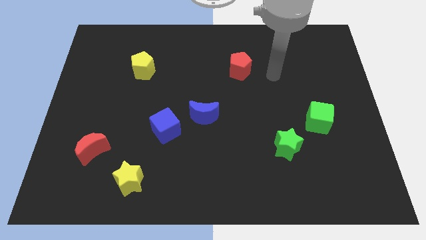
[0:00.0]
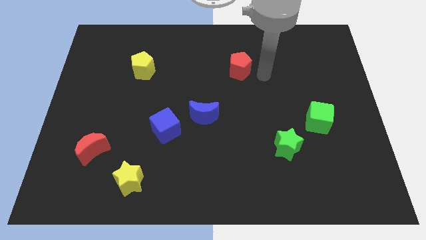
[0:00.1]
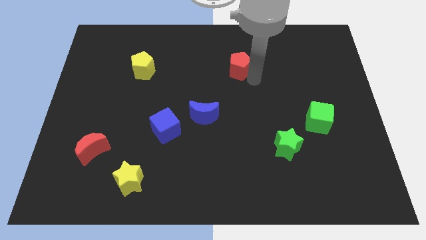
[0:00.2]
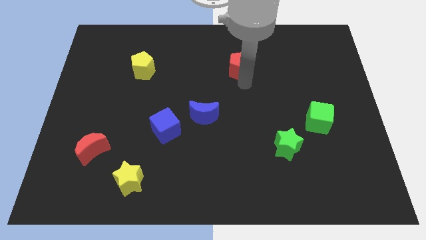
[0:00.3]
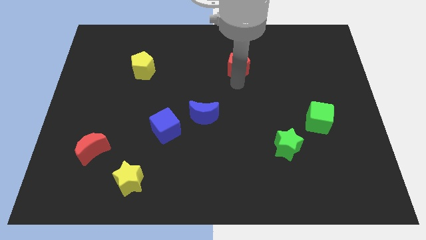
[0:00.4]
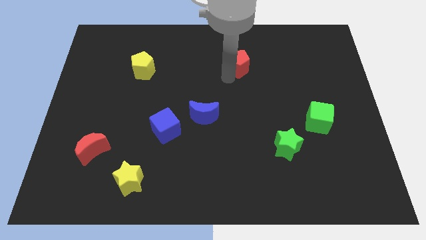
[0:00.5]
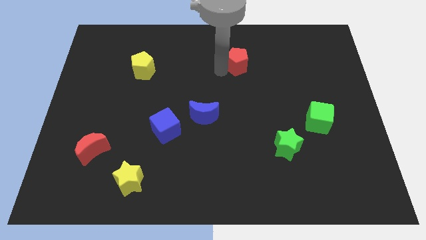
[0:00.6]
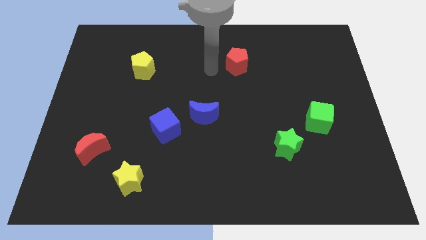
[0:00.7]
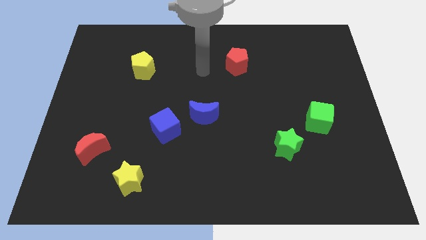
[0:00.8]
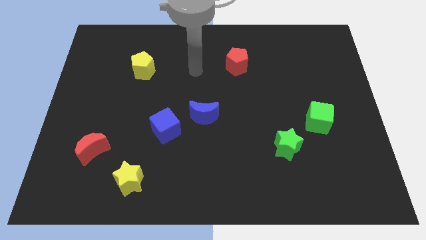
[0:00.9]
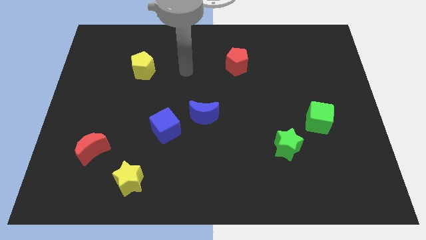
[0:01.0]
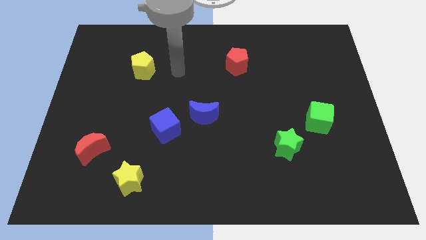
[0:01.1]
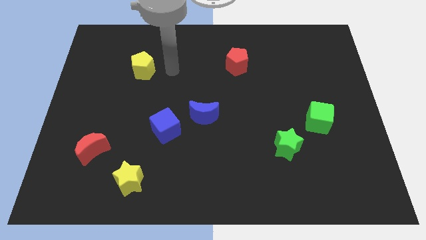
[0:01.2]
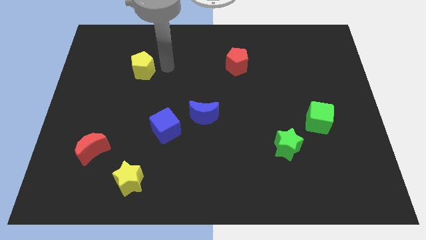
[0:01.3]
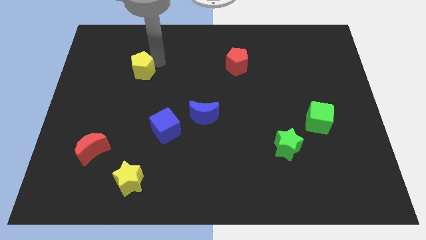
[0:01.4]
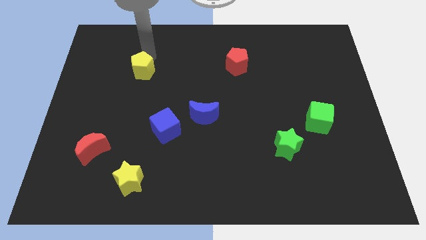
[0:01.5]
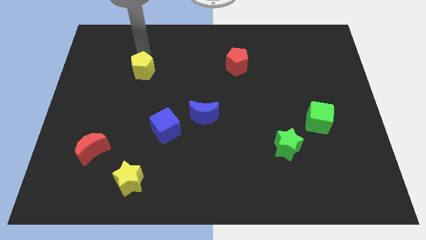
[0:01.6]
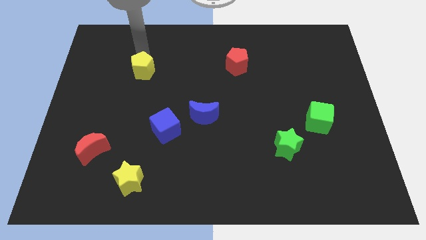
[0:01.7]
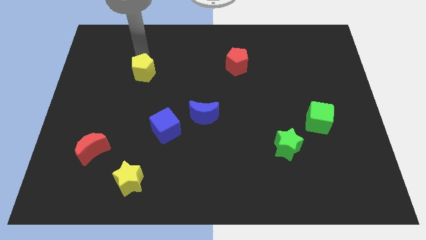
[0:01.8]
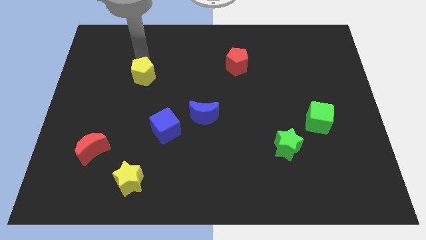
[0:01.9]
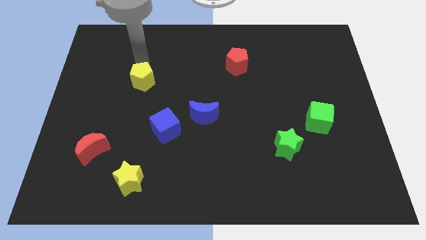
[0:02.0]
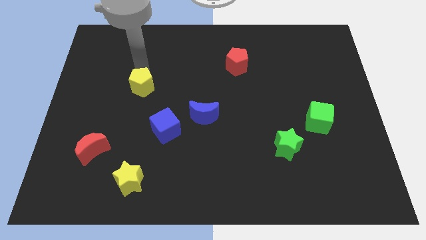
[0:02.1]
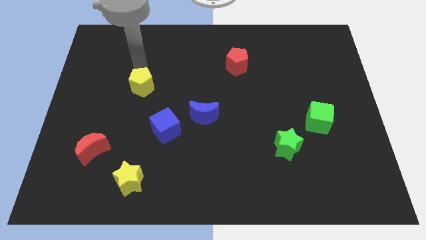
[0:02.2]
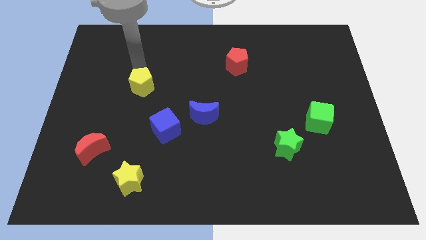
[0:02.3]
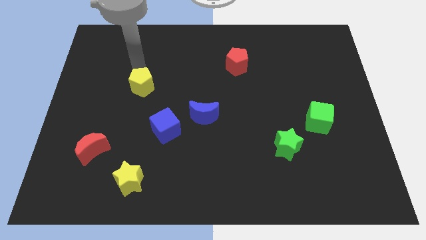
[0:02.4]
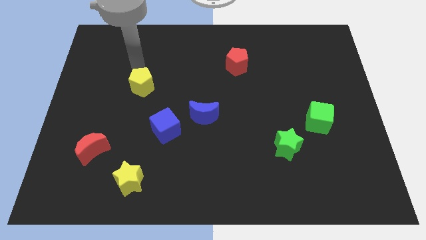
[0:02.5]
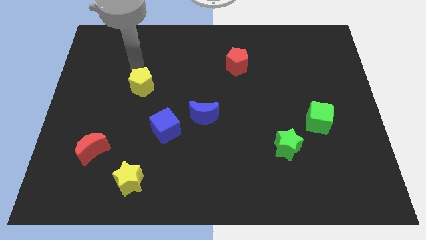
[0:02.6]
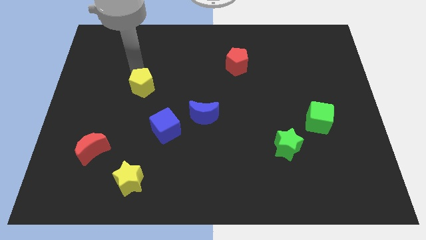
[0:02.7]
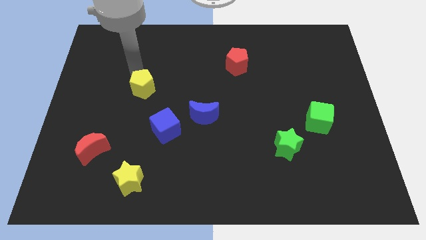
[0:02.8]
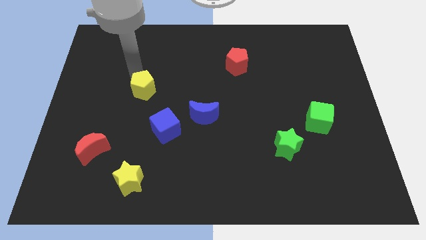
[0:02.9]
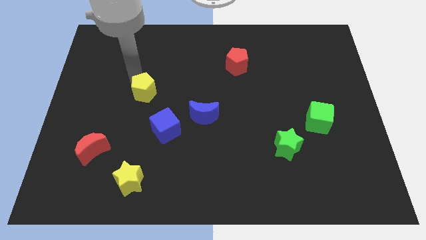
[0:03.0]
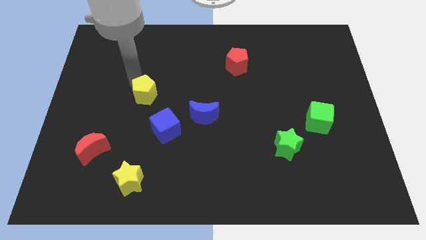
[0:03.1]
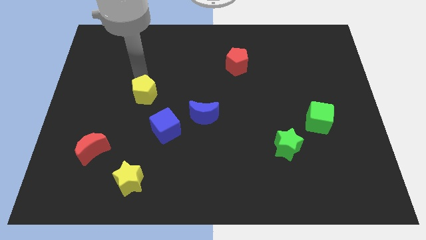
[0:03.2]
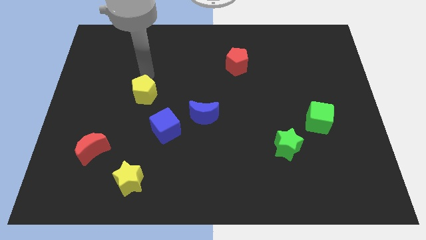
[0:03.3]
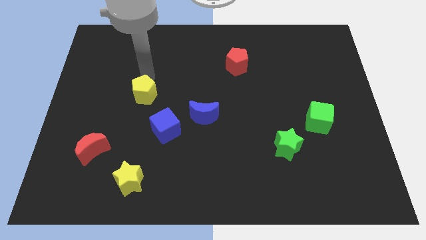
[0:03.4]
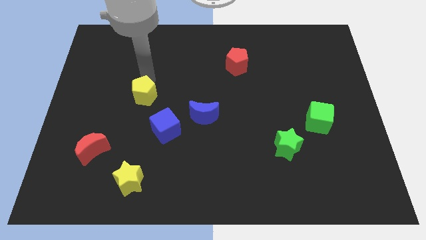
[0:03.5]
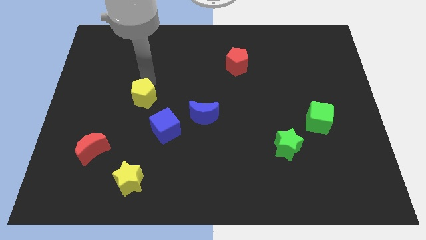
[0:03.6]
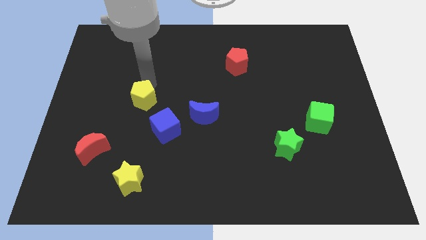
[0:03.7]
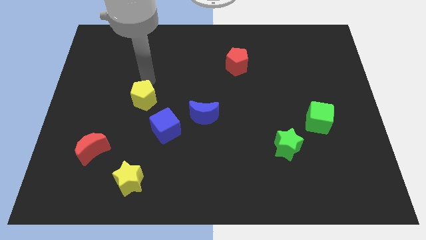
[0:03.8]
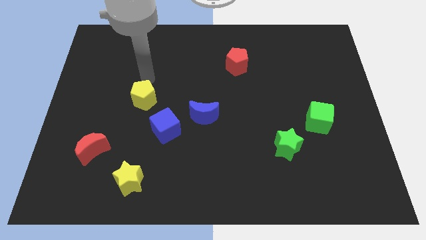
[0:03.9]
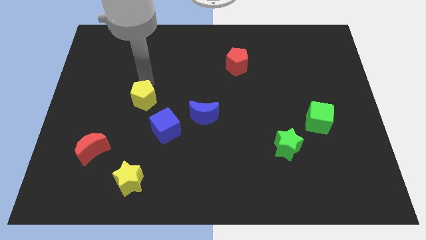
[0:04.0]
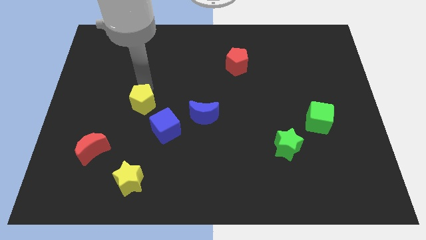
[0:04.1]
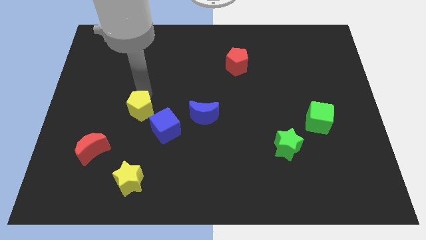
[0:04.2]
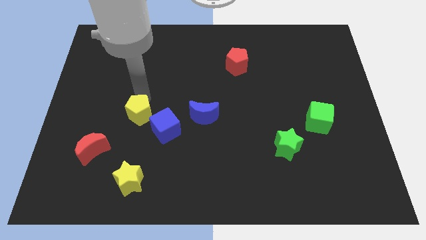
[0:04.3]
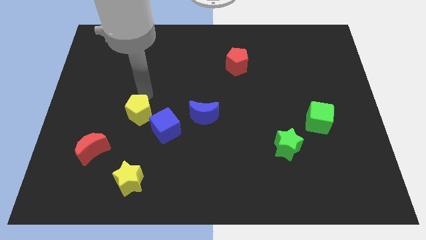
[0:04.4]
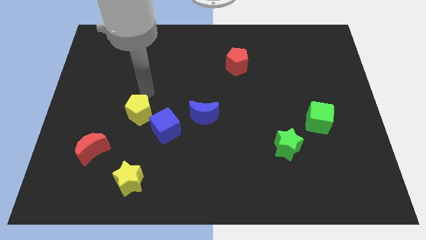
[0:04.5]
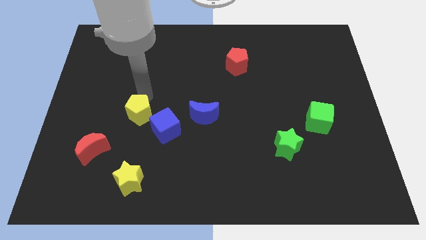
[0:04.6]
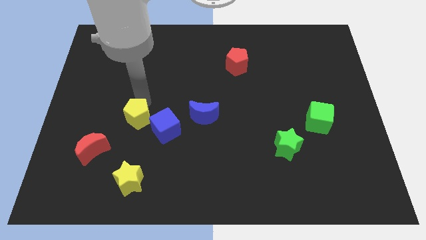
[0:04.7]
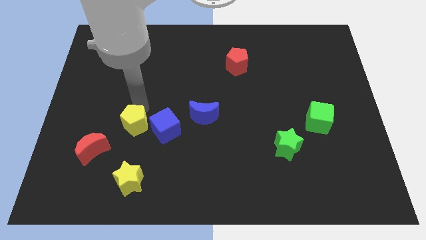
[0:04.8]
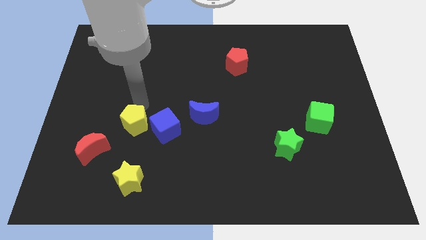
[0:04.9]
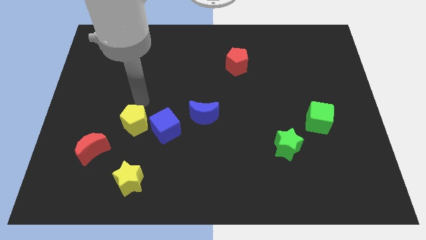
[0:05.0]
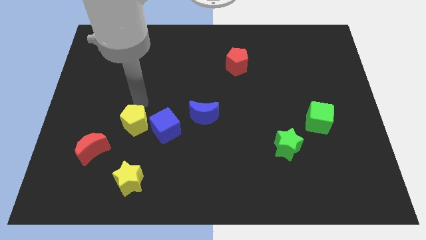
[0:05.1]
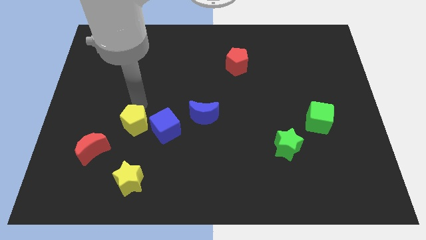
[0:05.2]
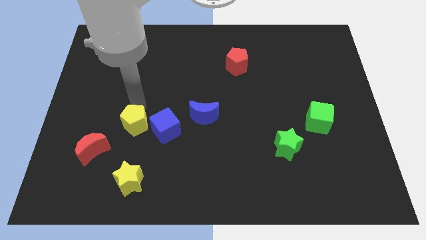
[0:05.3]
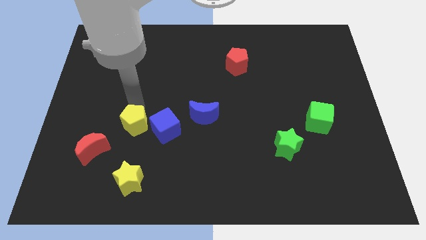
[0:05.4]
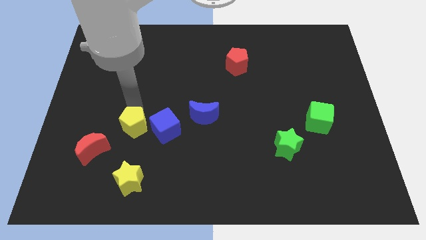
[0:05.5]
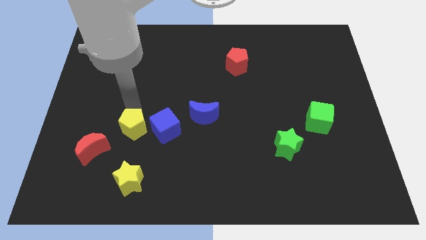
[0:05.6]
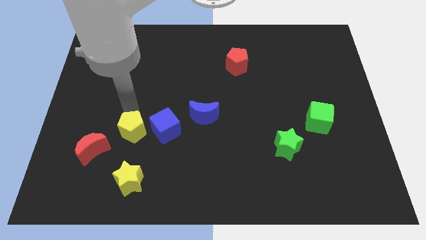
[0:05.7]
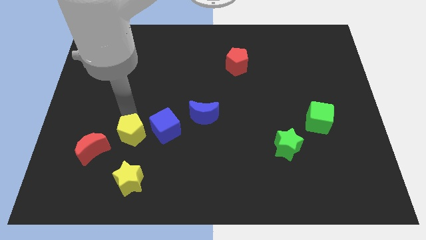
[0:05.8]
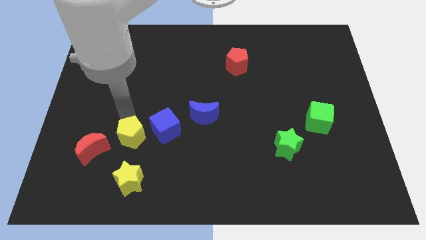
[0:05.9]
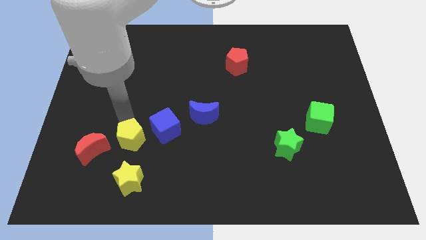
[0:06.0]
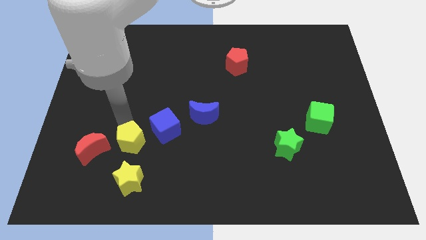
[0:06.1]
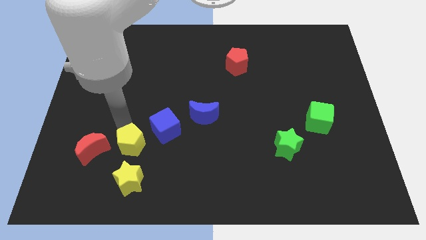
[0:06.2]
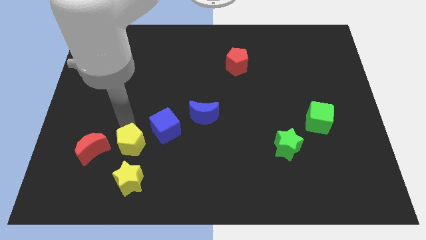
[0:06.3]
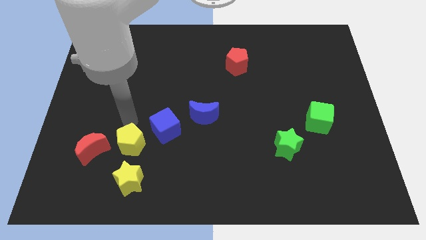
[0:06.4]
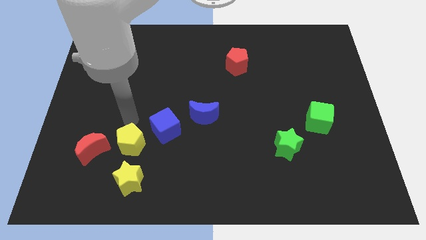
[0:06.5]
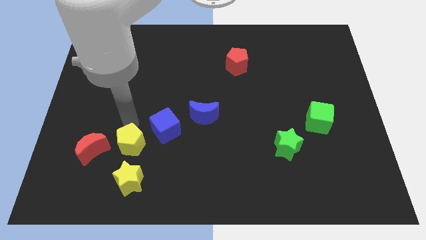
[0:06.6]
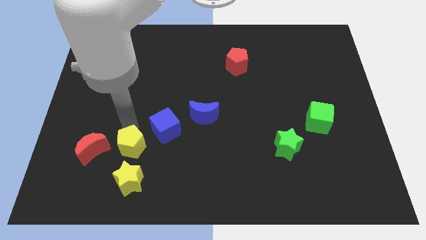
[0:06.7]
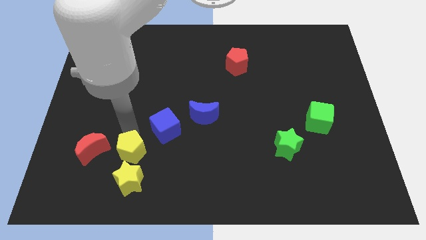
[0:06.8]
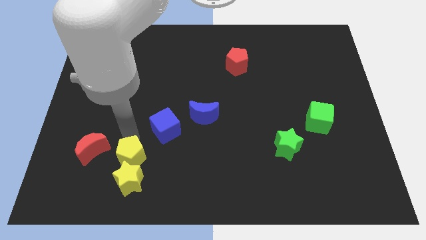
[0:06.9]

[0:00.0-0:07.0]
push the yellow pentagon close to the yellow star
